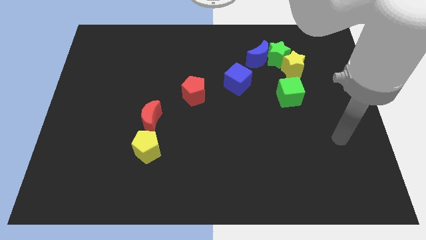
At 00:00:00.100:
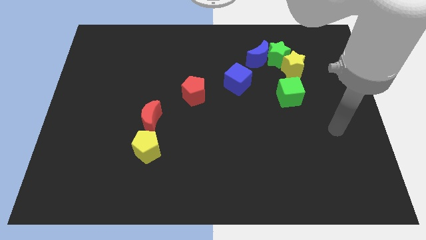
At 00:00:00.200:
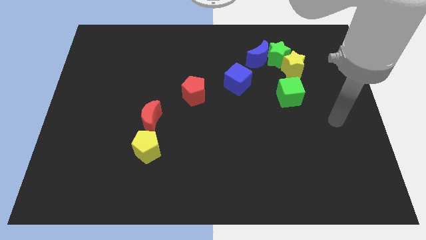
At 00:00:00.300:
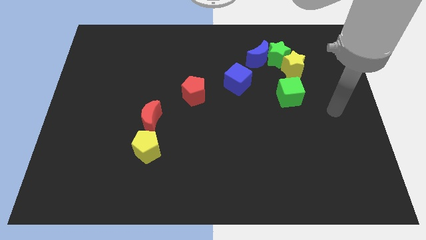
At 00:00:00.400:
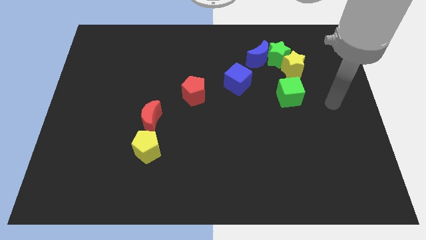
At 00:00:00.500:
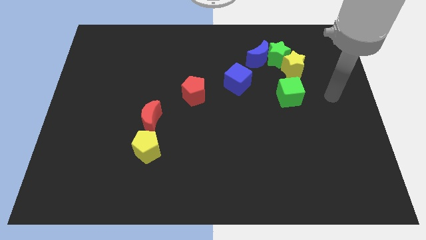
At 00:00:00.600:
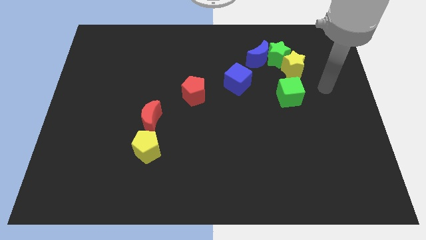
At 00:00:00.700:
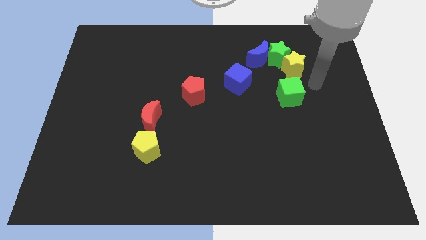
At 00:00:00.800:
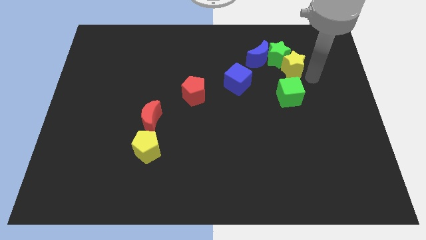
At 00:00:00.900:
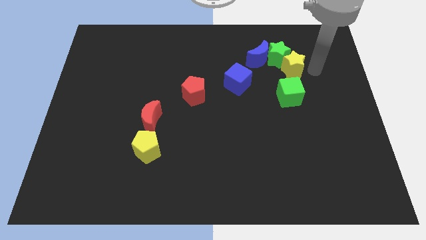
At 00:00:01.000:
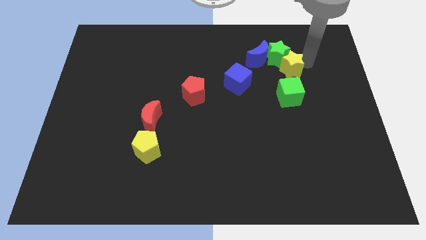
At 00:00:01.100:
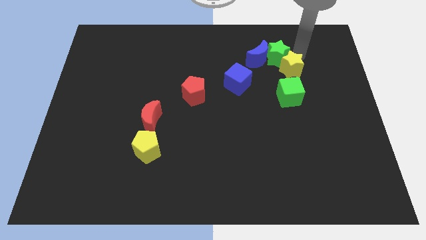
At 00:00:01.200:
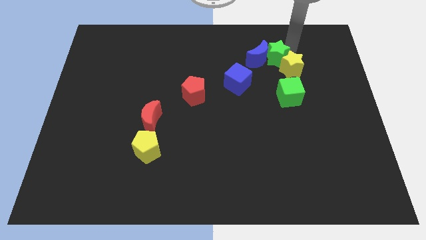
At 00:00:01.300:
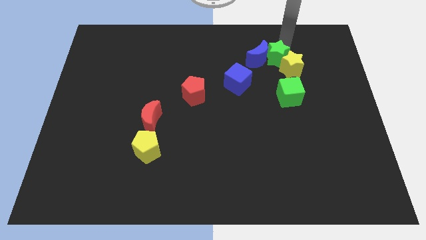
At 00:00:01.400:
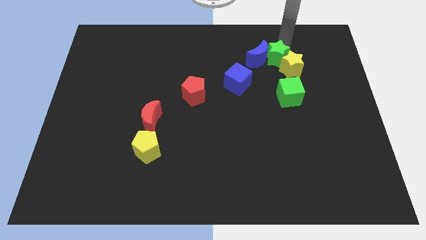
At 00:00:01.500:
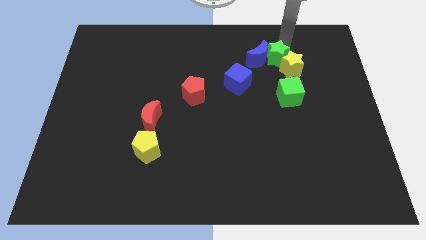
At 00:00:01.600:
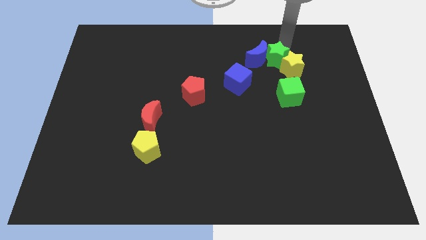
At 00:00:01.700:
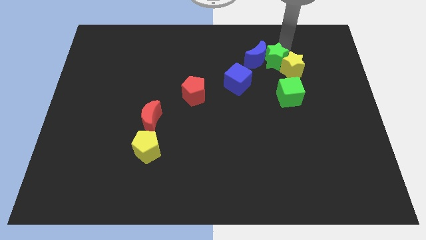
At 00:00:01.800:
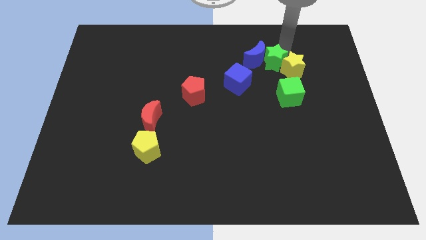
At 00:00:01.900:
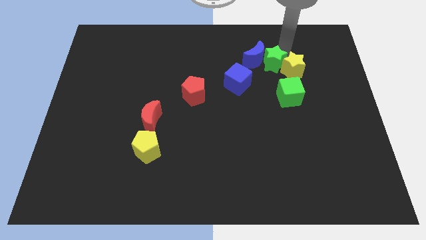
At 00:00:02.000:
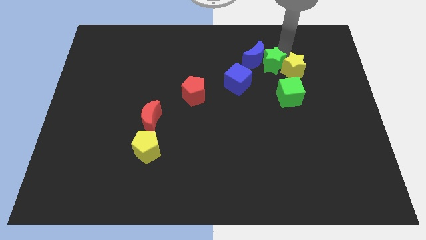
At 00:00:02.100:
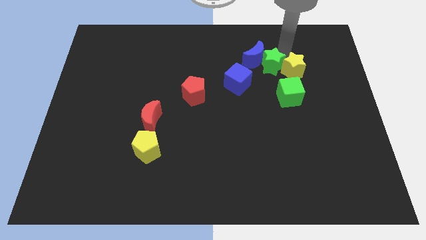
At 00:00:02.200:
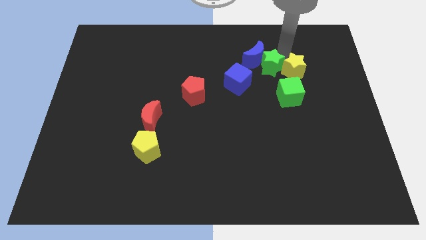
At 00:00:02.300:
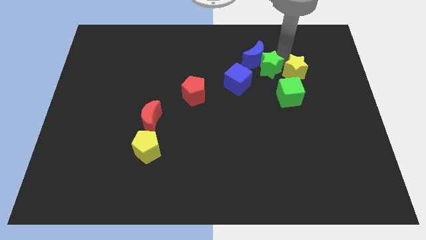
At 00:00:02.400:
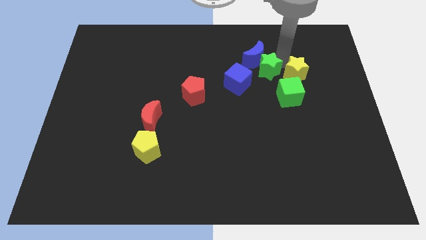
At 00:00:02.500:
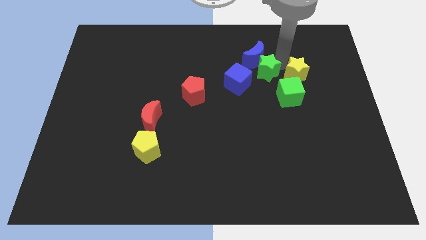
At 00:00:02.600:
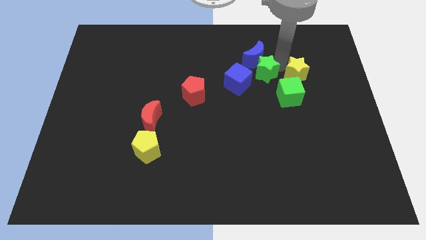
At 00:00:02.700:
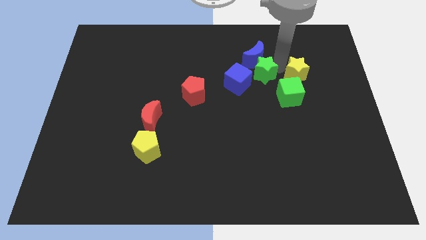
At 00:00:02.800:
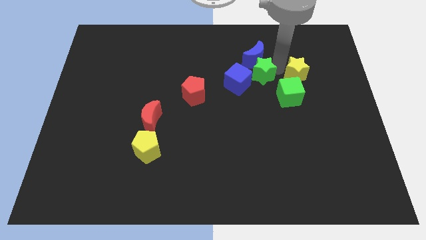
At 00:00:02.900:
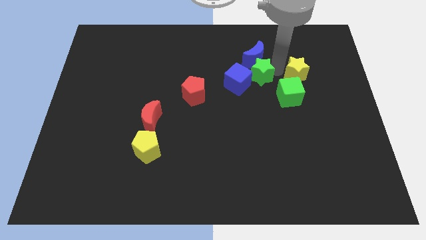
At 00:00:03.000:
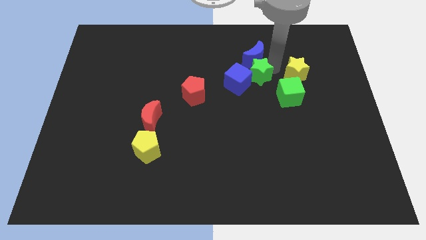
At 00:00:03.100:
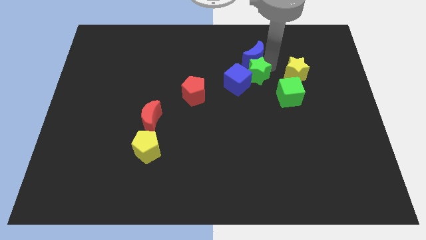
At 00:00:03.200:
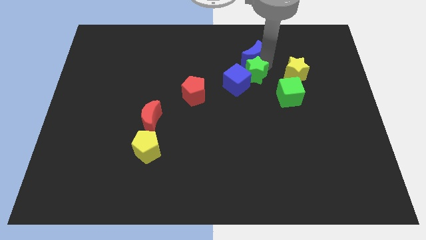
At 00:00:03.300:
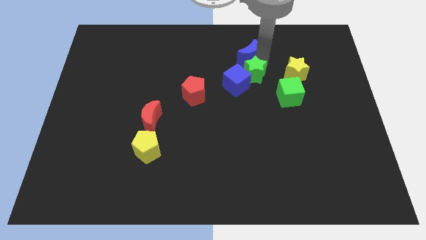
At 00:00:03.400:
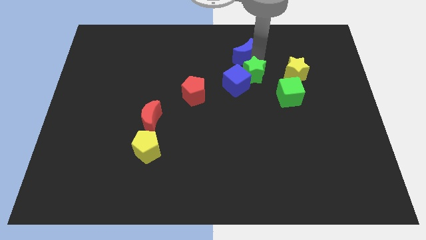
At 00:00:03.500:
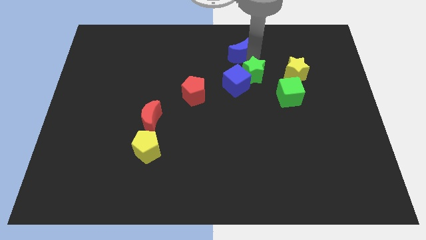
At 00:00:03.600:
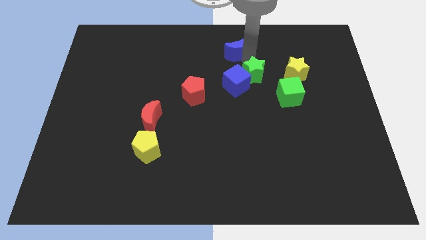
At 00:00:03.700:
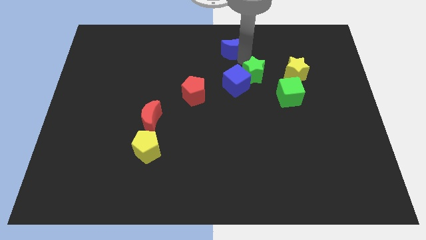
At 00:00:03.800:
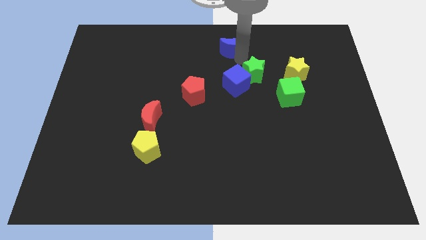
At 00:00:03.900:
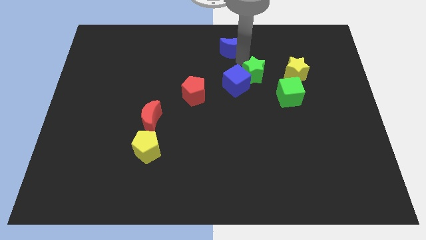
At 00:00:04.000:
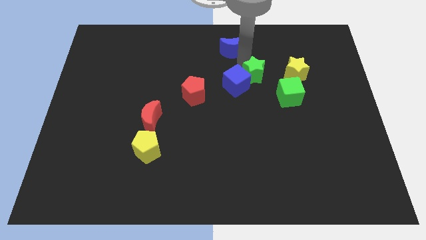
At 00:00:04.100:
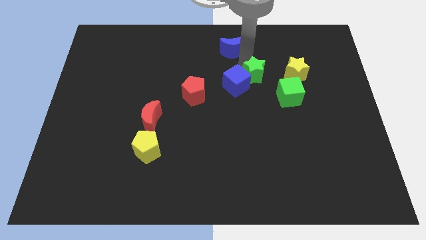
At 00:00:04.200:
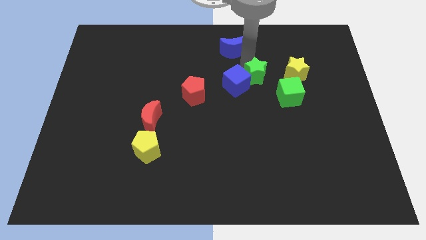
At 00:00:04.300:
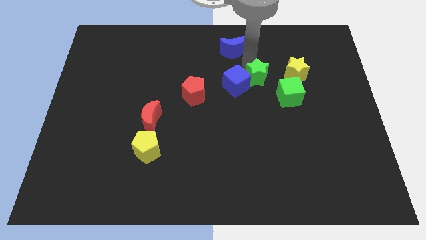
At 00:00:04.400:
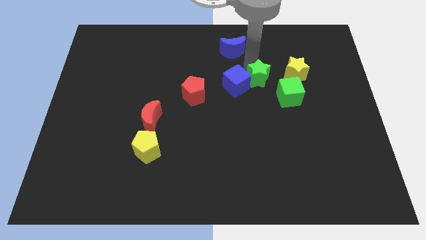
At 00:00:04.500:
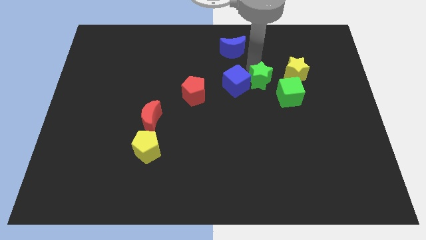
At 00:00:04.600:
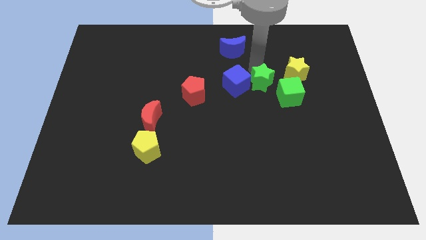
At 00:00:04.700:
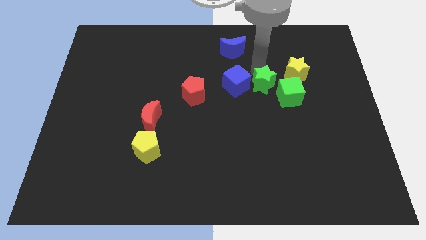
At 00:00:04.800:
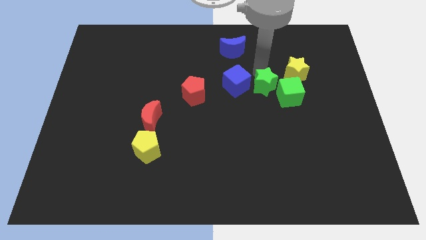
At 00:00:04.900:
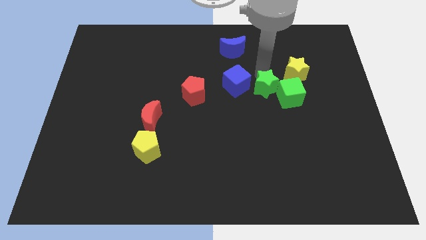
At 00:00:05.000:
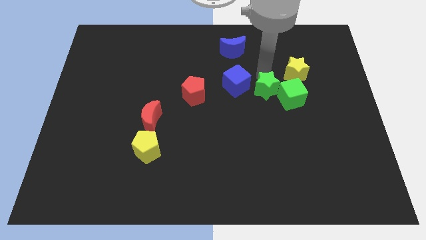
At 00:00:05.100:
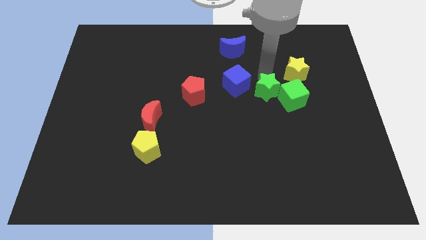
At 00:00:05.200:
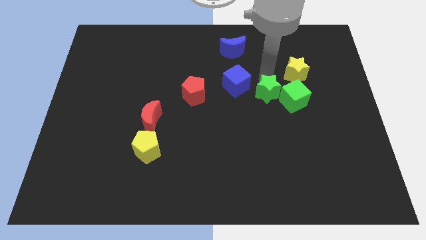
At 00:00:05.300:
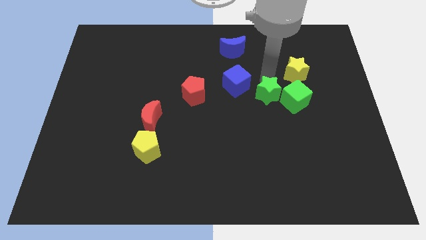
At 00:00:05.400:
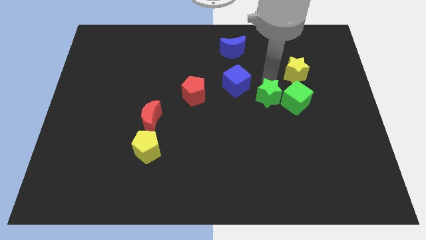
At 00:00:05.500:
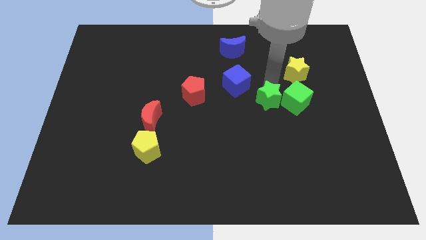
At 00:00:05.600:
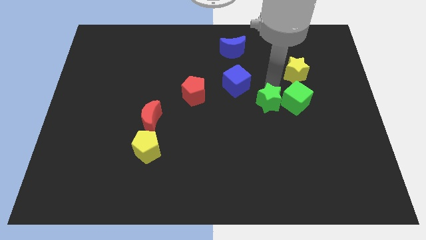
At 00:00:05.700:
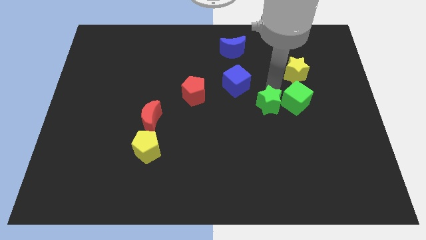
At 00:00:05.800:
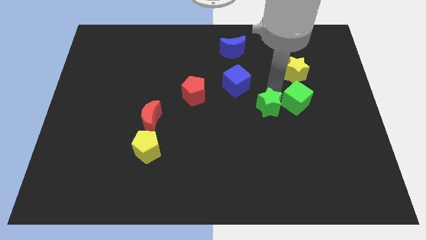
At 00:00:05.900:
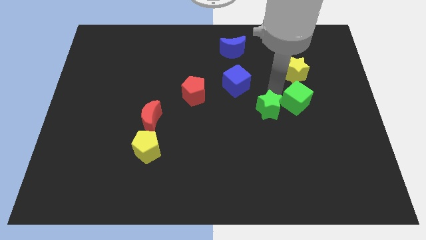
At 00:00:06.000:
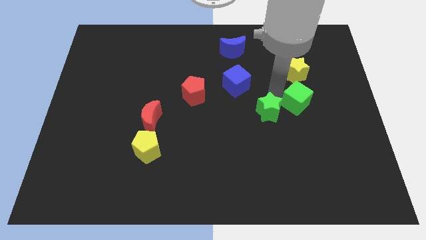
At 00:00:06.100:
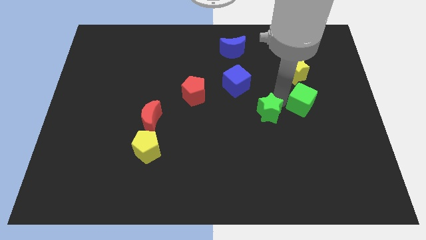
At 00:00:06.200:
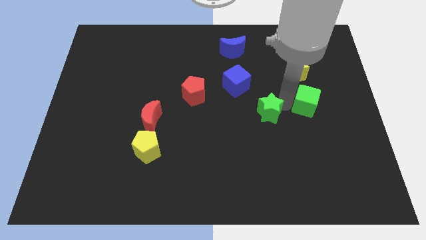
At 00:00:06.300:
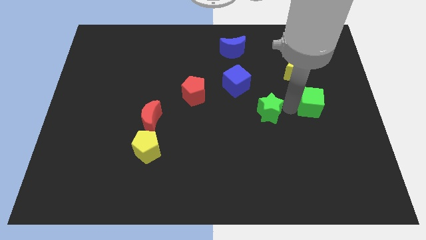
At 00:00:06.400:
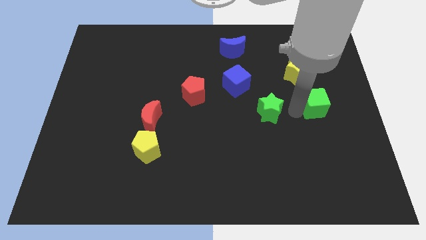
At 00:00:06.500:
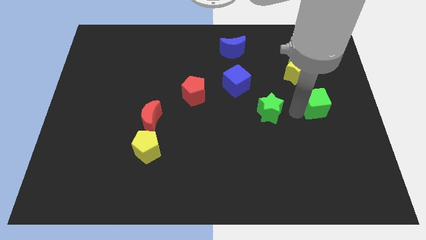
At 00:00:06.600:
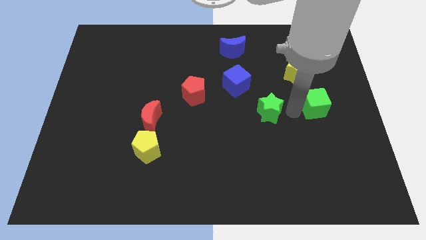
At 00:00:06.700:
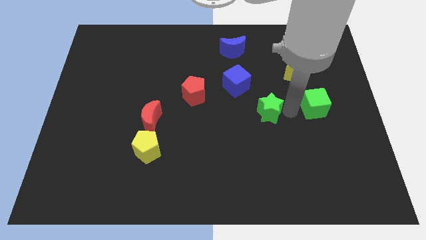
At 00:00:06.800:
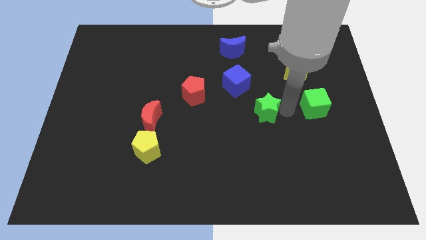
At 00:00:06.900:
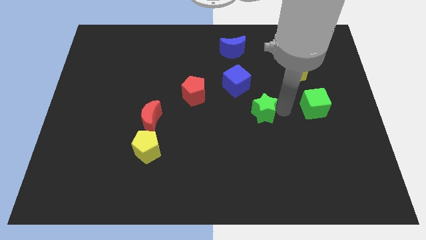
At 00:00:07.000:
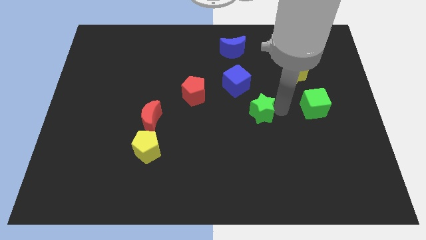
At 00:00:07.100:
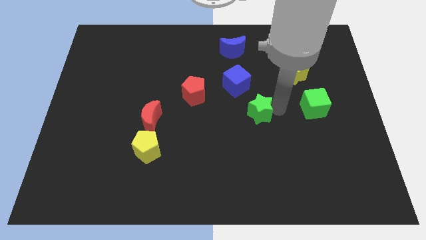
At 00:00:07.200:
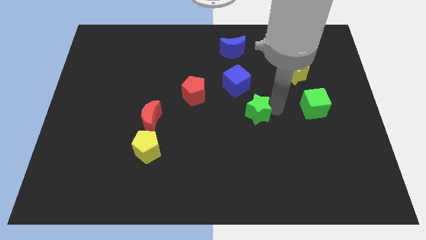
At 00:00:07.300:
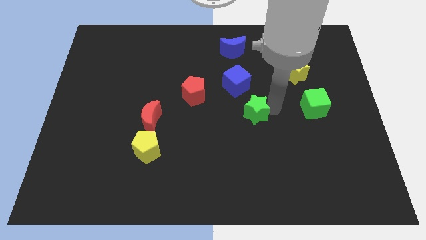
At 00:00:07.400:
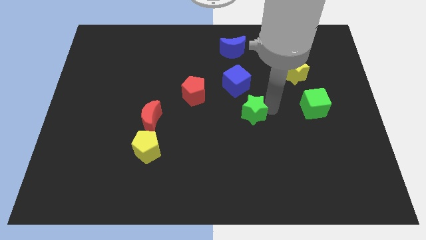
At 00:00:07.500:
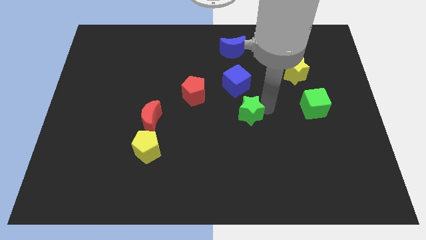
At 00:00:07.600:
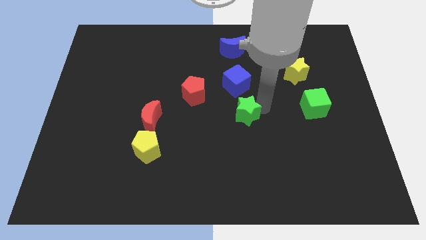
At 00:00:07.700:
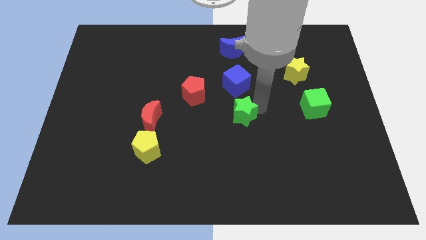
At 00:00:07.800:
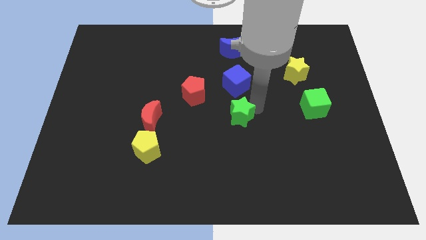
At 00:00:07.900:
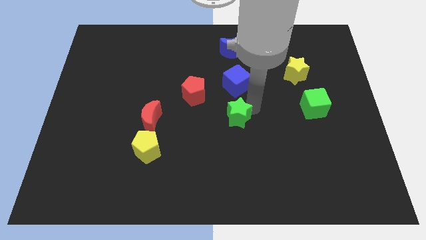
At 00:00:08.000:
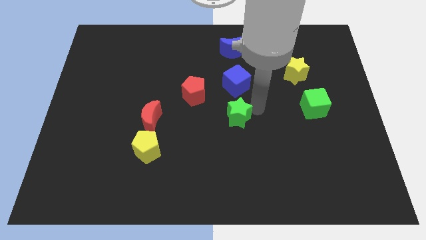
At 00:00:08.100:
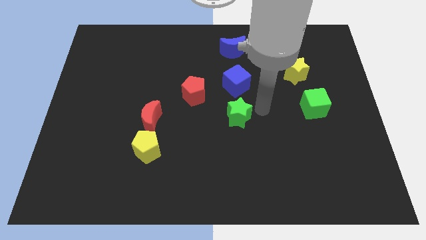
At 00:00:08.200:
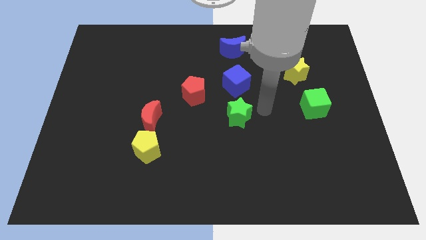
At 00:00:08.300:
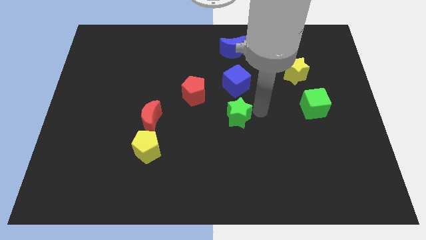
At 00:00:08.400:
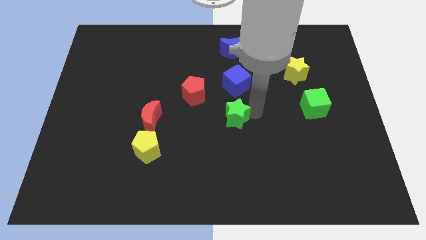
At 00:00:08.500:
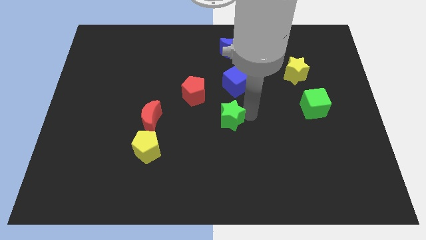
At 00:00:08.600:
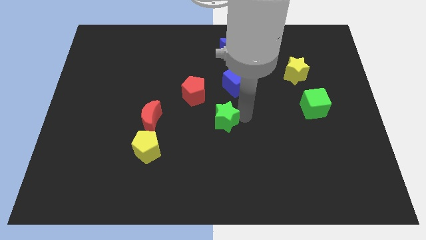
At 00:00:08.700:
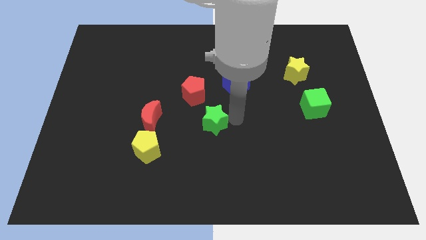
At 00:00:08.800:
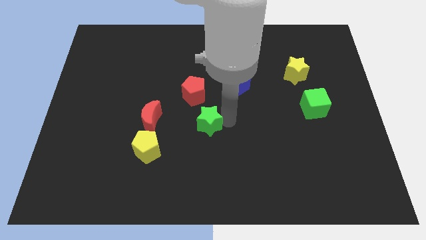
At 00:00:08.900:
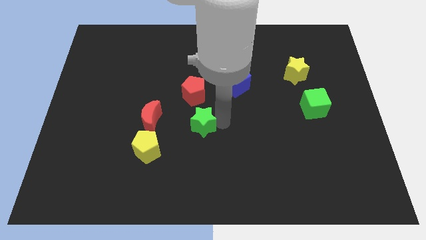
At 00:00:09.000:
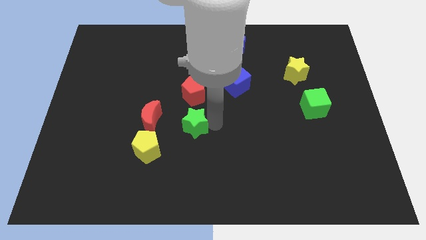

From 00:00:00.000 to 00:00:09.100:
move the green star to the top right side of the yellow pentagon
